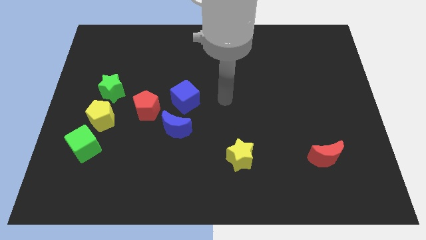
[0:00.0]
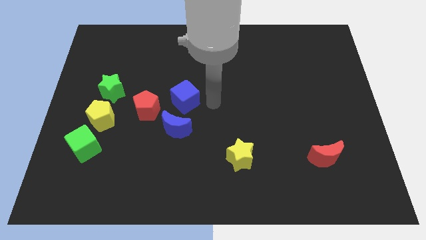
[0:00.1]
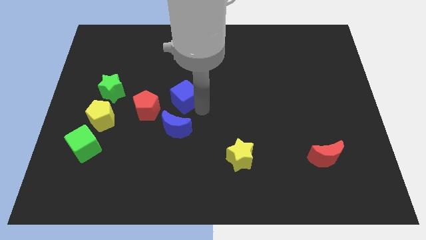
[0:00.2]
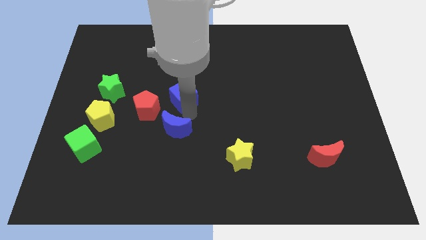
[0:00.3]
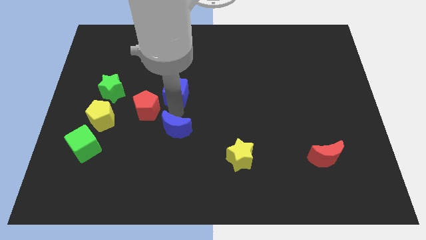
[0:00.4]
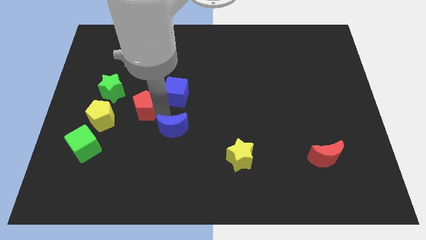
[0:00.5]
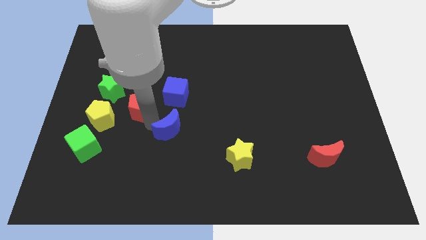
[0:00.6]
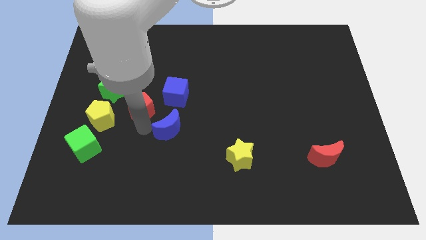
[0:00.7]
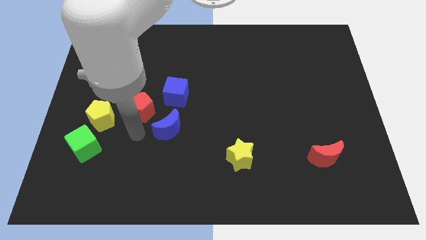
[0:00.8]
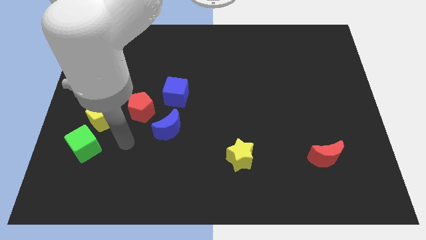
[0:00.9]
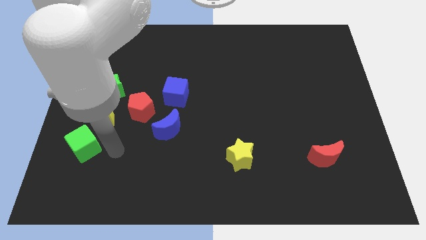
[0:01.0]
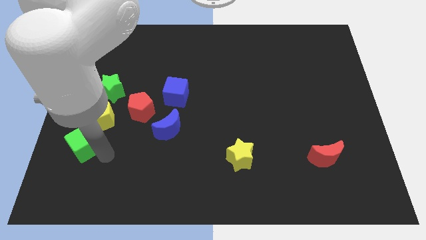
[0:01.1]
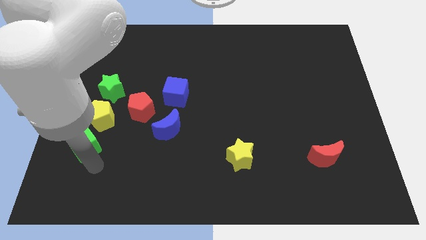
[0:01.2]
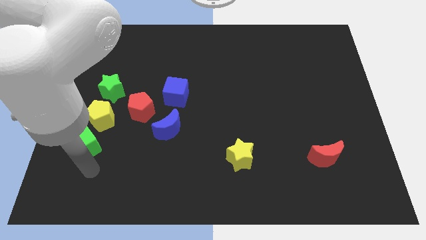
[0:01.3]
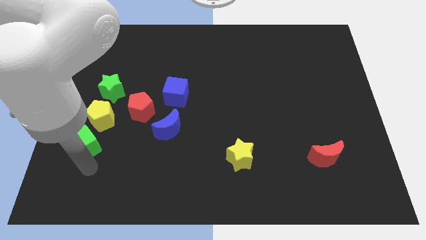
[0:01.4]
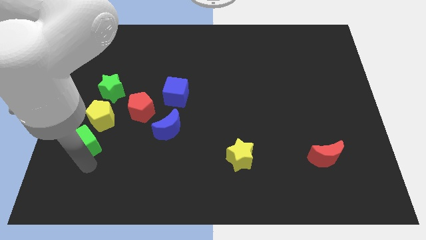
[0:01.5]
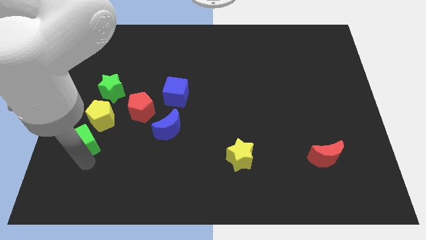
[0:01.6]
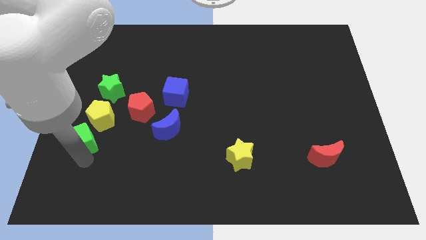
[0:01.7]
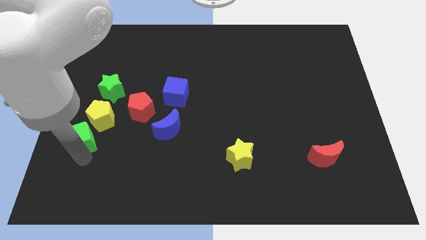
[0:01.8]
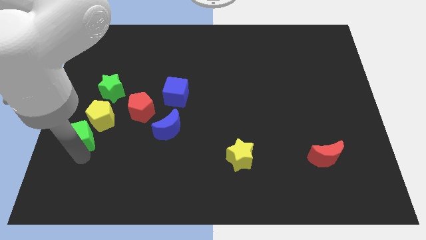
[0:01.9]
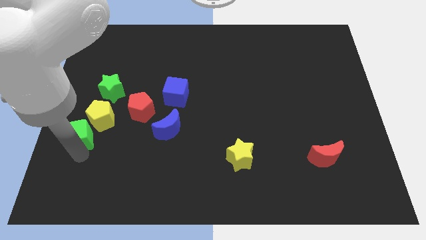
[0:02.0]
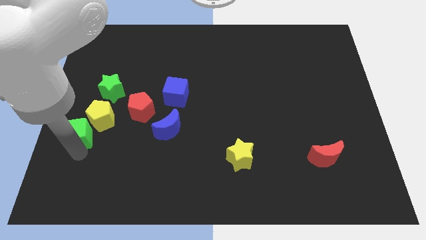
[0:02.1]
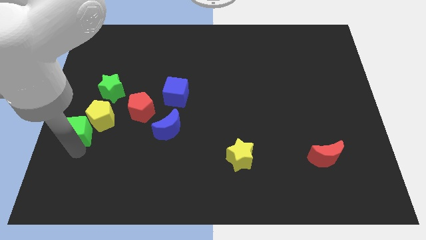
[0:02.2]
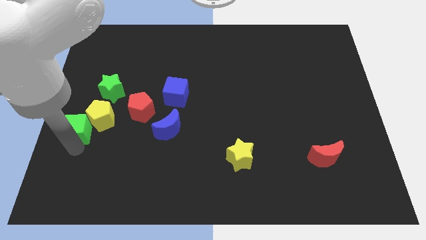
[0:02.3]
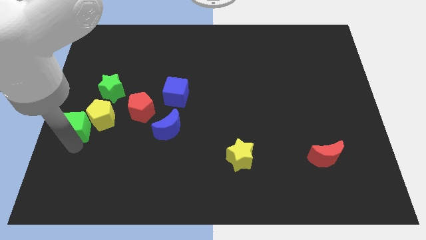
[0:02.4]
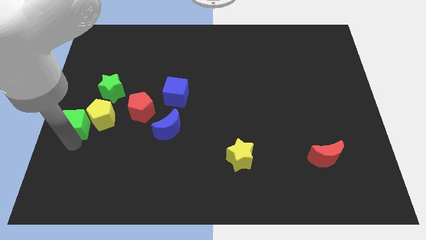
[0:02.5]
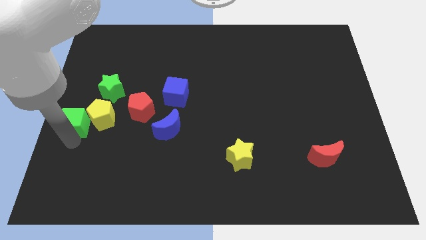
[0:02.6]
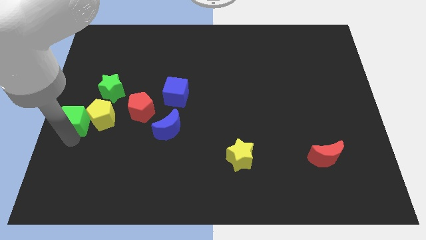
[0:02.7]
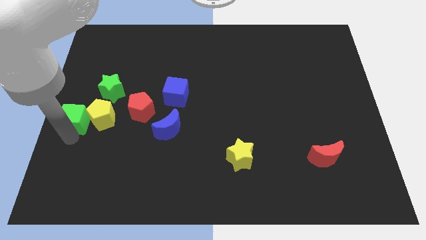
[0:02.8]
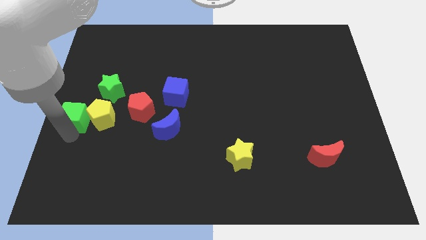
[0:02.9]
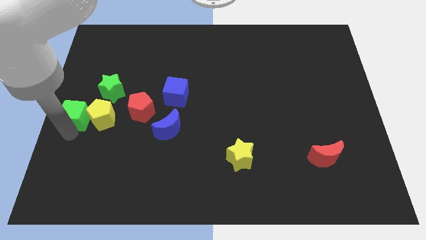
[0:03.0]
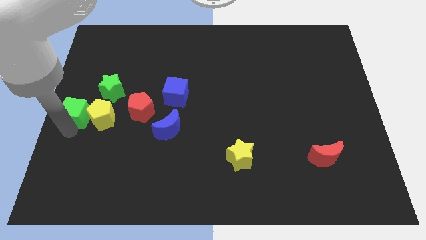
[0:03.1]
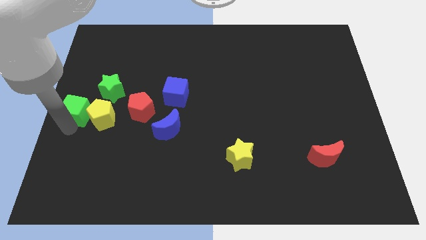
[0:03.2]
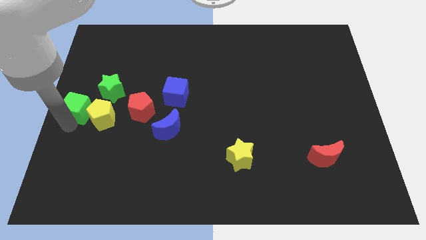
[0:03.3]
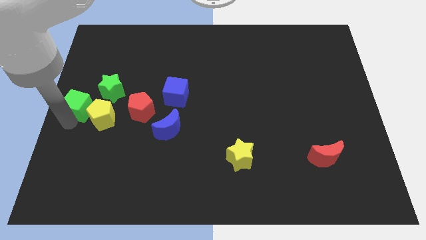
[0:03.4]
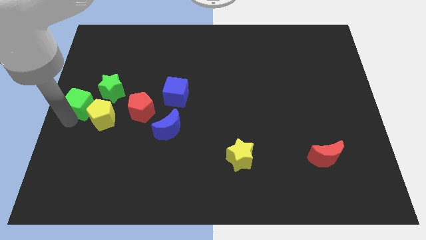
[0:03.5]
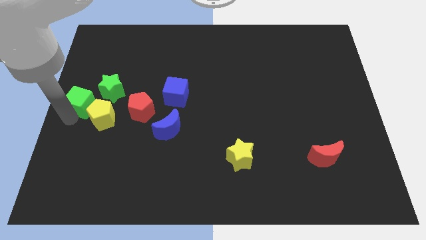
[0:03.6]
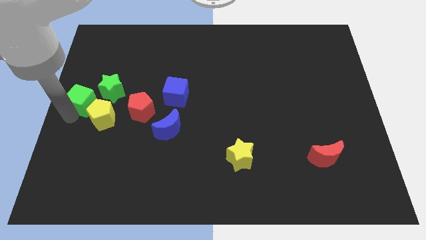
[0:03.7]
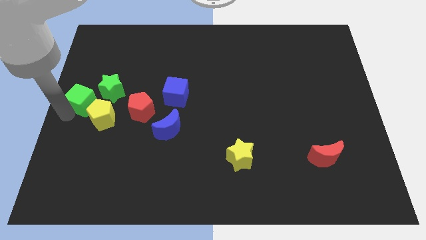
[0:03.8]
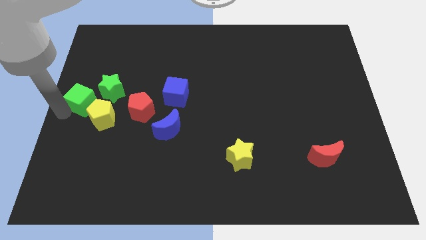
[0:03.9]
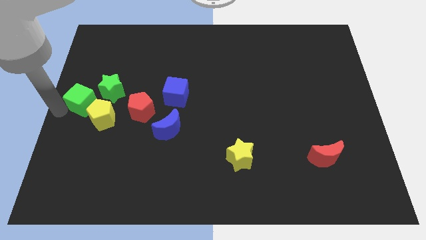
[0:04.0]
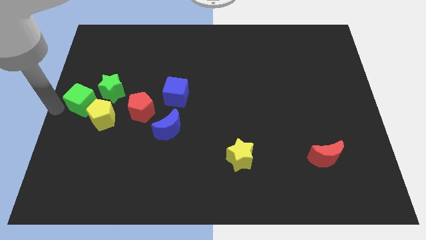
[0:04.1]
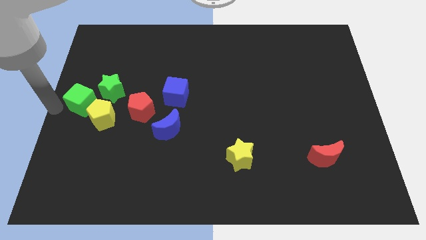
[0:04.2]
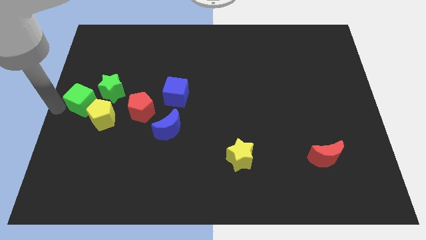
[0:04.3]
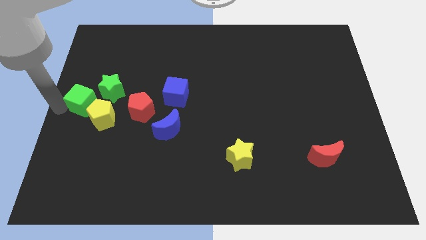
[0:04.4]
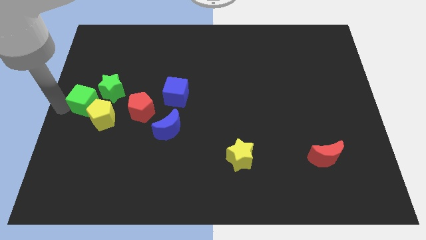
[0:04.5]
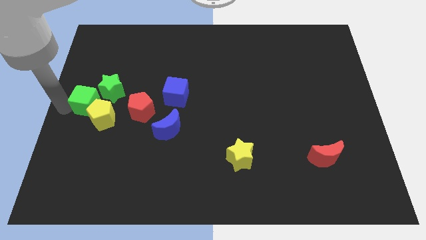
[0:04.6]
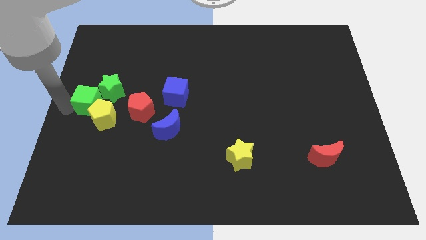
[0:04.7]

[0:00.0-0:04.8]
move the green cube close to the green star

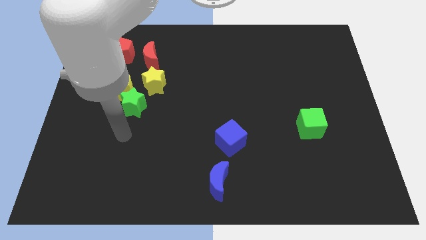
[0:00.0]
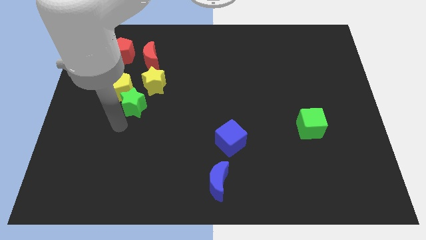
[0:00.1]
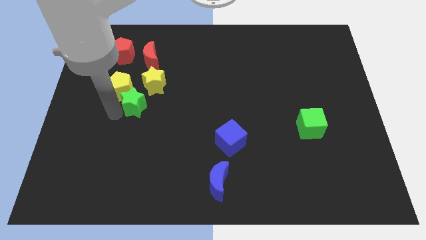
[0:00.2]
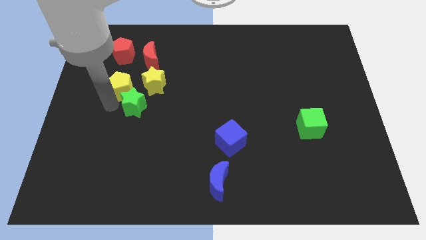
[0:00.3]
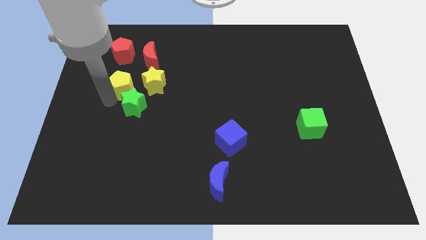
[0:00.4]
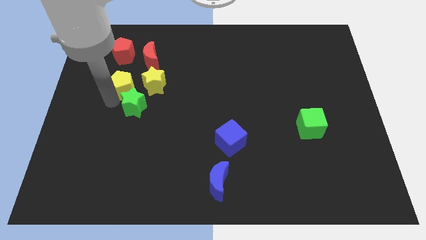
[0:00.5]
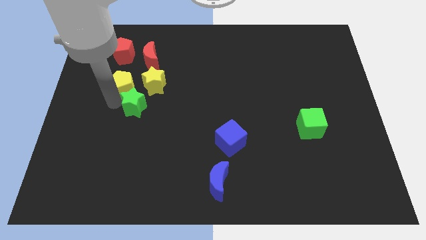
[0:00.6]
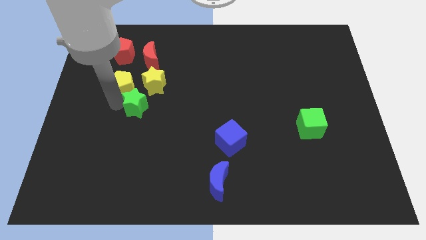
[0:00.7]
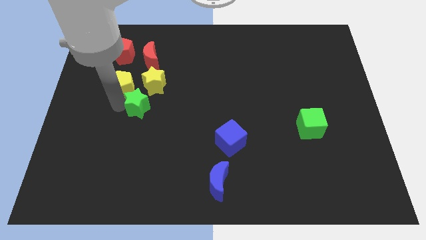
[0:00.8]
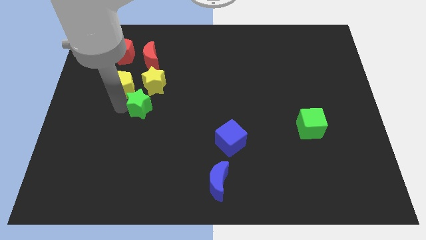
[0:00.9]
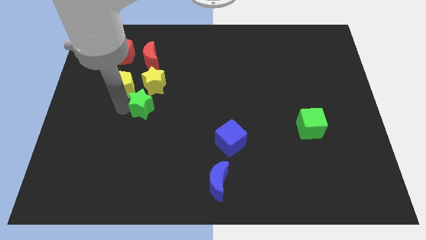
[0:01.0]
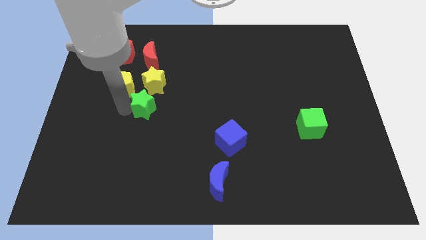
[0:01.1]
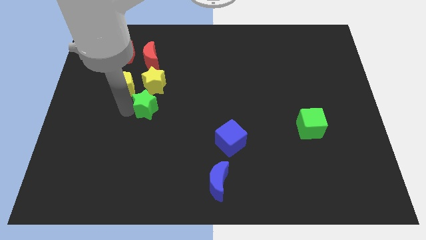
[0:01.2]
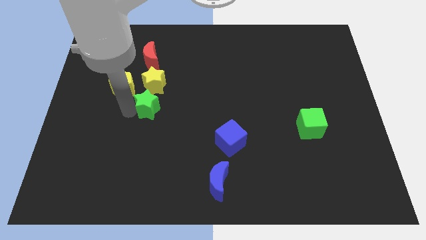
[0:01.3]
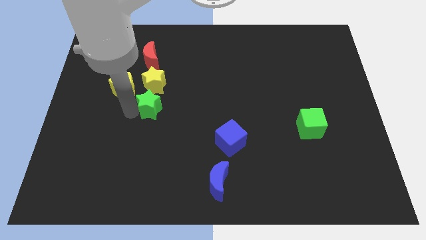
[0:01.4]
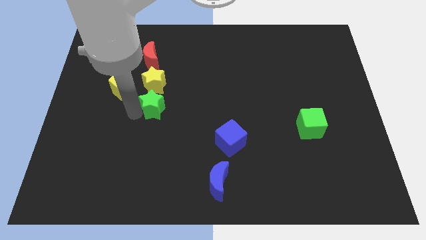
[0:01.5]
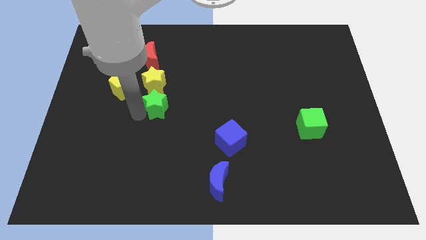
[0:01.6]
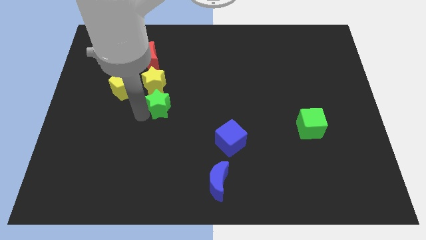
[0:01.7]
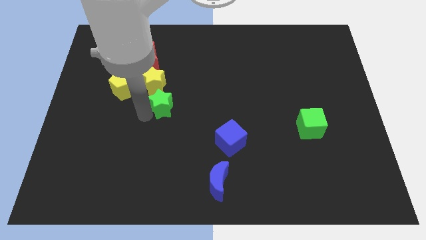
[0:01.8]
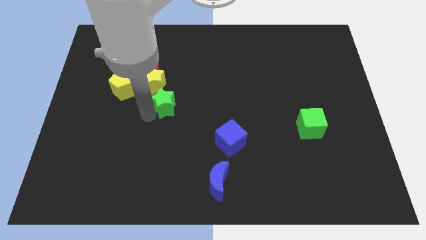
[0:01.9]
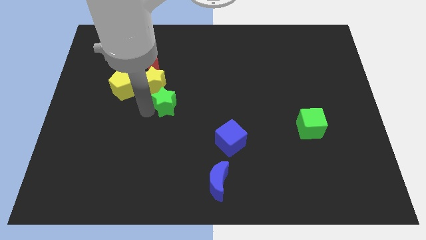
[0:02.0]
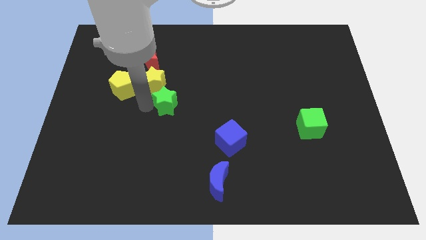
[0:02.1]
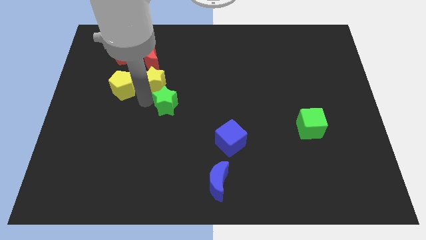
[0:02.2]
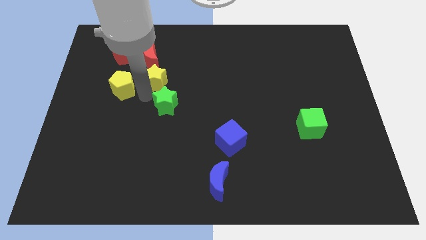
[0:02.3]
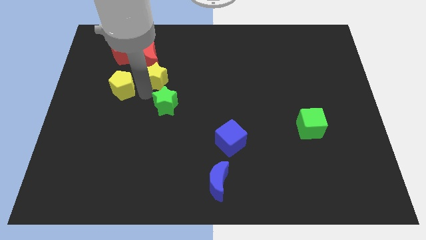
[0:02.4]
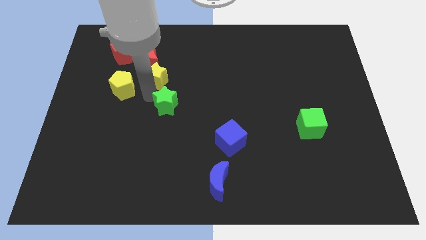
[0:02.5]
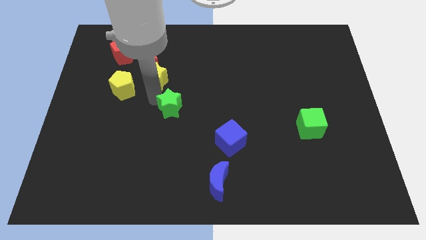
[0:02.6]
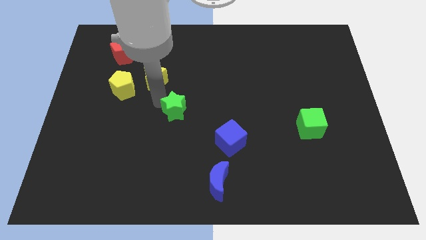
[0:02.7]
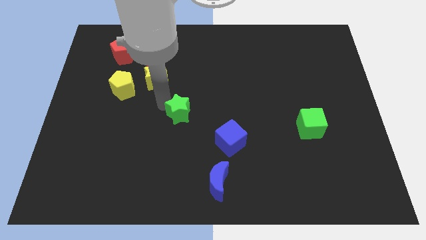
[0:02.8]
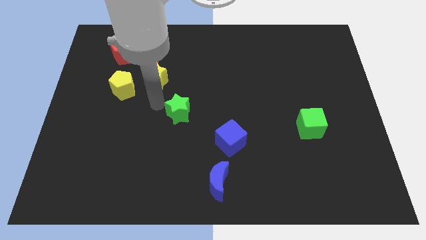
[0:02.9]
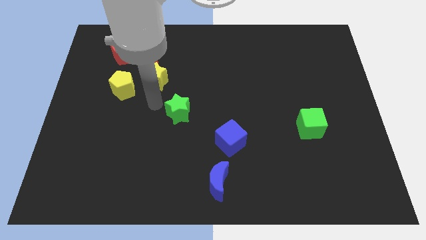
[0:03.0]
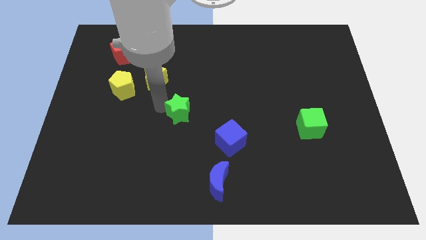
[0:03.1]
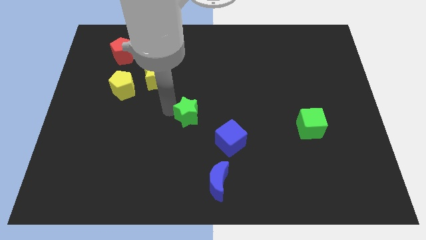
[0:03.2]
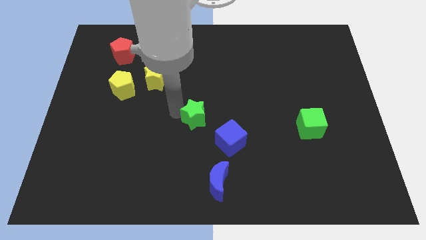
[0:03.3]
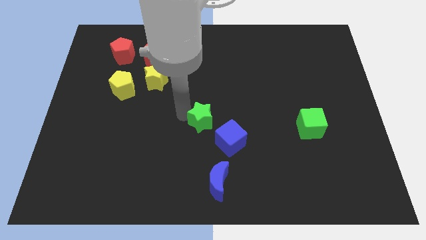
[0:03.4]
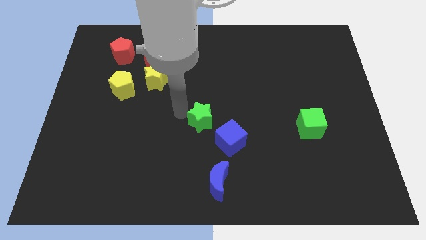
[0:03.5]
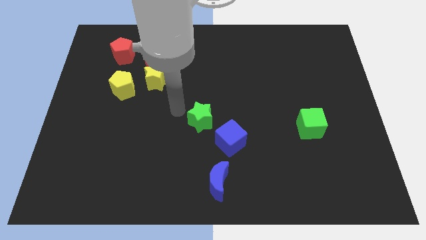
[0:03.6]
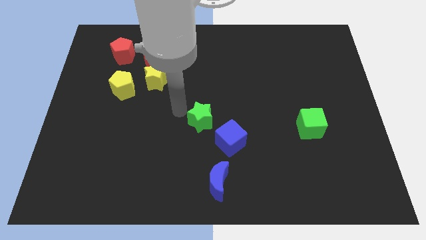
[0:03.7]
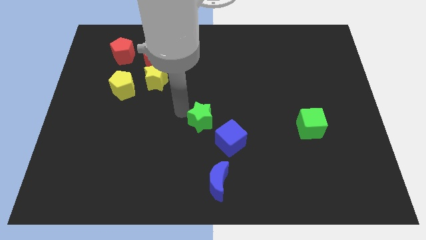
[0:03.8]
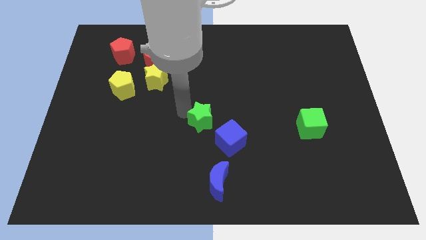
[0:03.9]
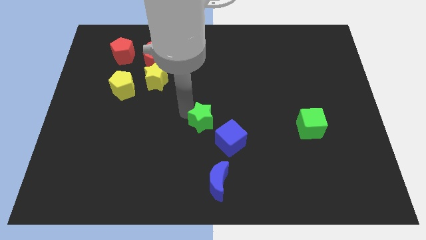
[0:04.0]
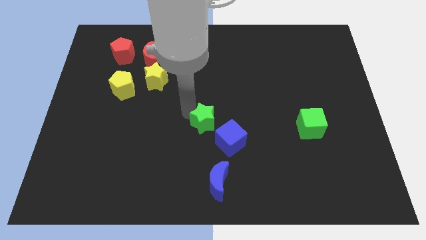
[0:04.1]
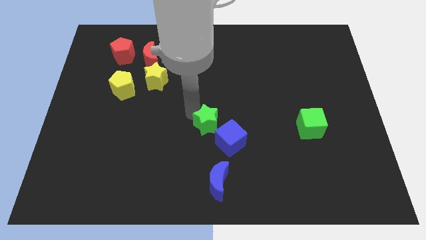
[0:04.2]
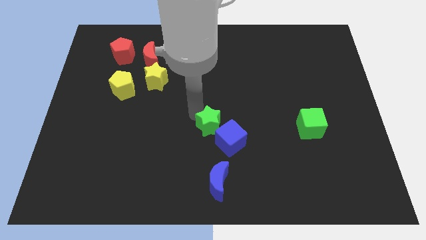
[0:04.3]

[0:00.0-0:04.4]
push the green star towards the blue cube
